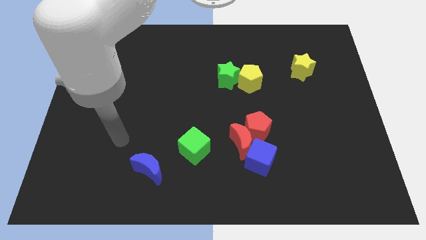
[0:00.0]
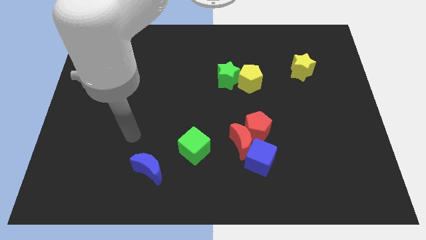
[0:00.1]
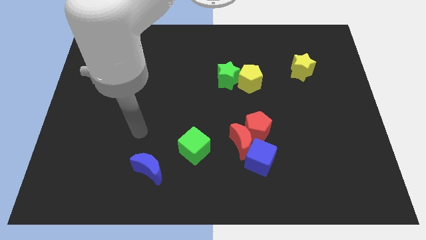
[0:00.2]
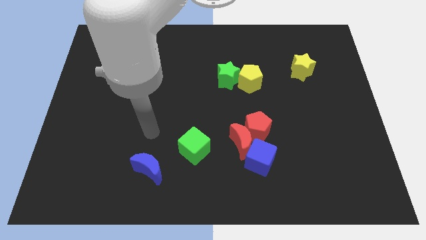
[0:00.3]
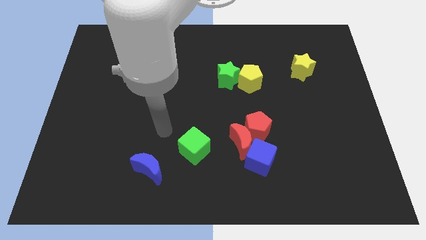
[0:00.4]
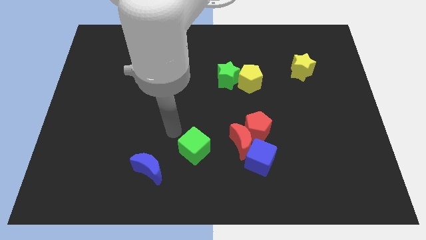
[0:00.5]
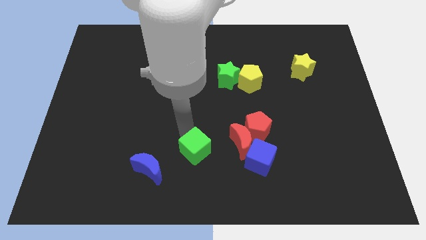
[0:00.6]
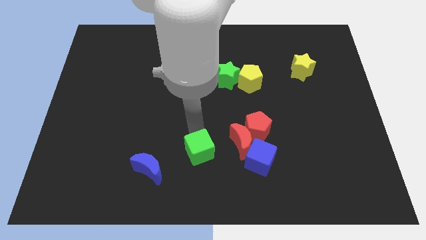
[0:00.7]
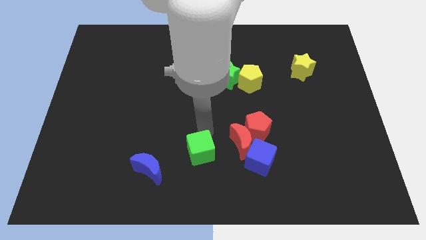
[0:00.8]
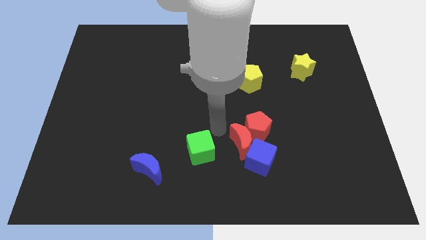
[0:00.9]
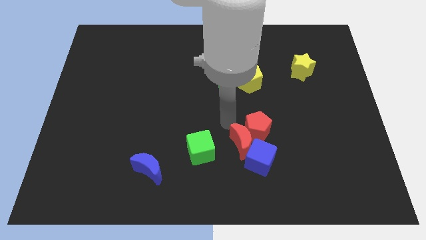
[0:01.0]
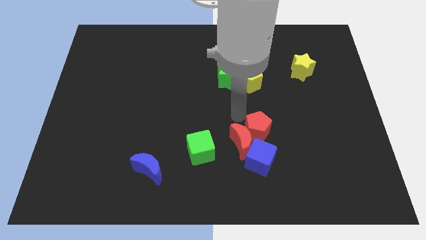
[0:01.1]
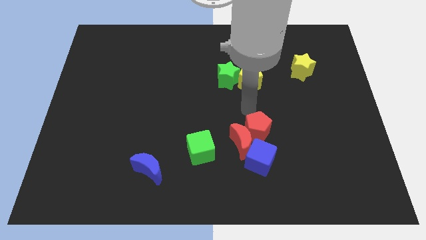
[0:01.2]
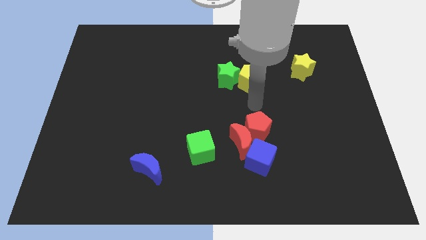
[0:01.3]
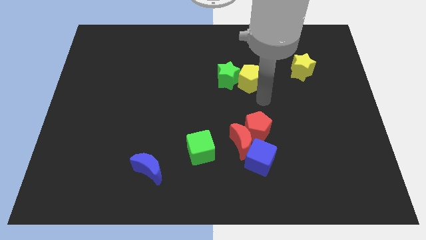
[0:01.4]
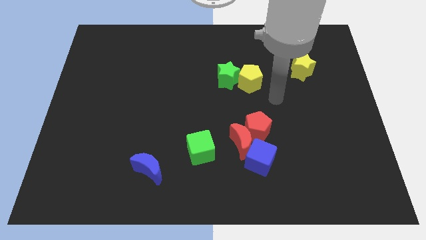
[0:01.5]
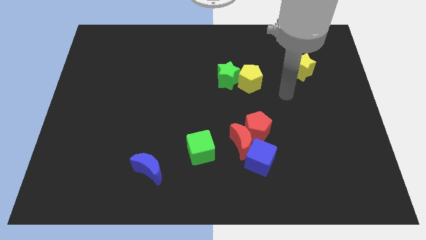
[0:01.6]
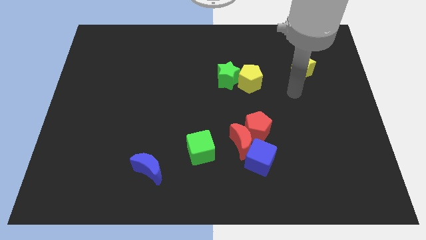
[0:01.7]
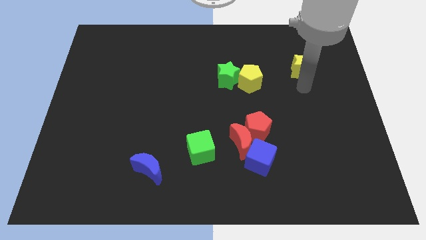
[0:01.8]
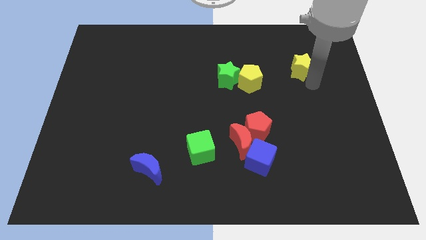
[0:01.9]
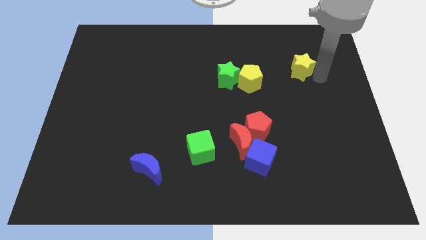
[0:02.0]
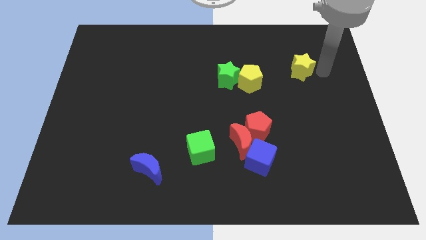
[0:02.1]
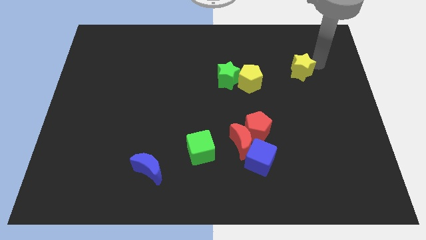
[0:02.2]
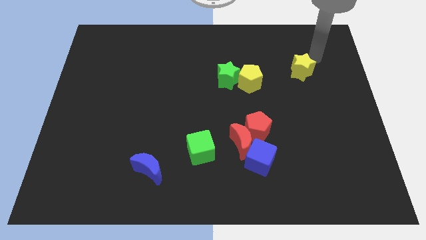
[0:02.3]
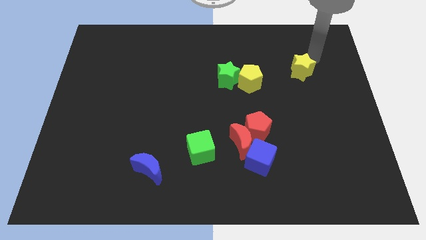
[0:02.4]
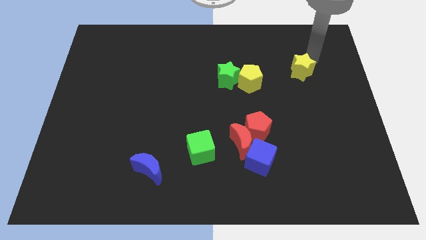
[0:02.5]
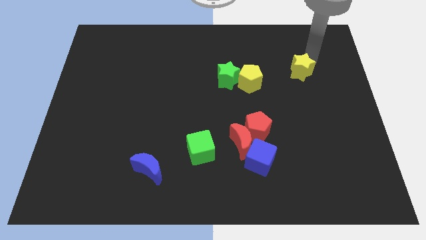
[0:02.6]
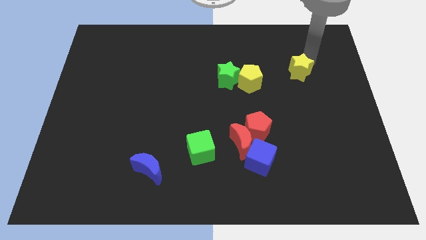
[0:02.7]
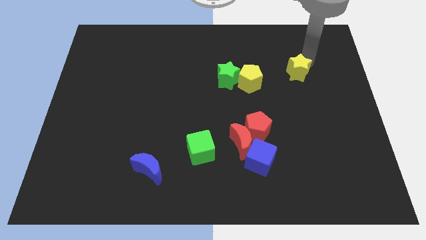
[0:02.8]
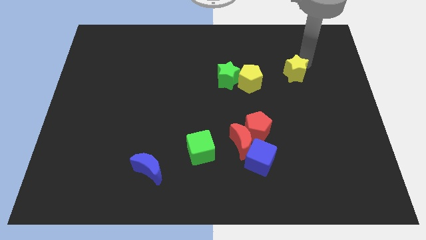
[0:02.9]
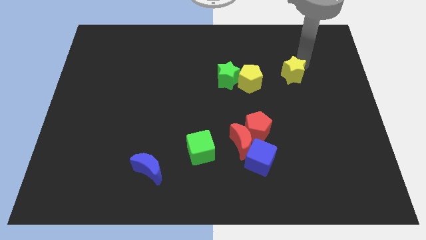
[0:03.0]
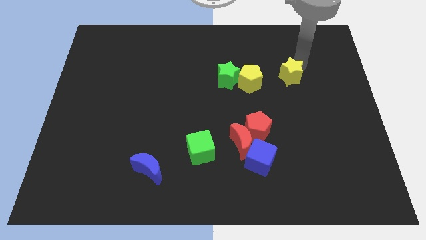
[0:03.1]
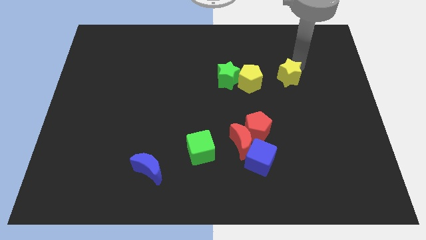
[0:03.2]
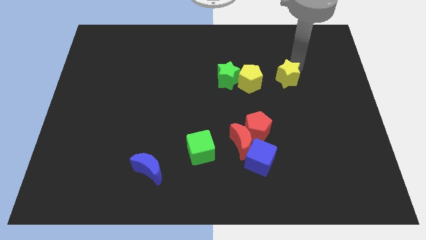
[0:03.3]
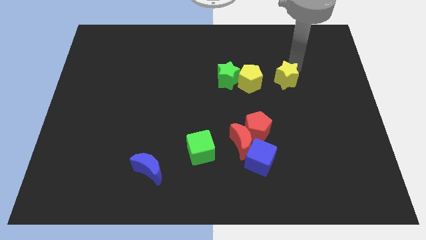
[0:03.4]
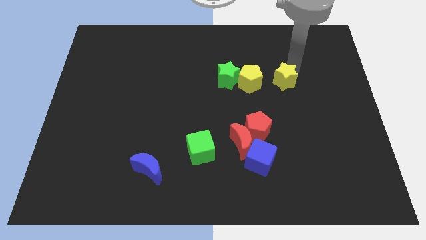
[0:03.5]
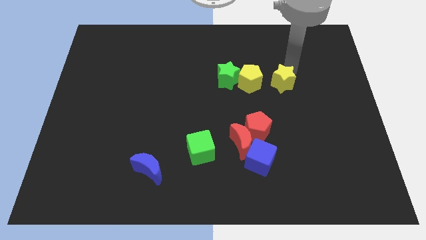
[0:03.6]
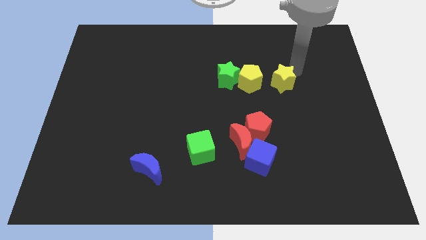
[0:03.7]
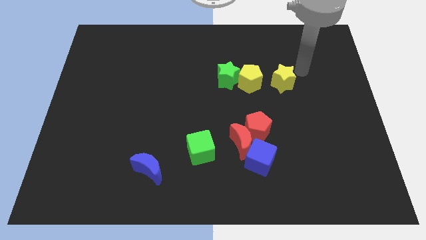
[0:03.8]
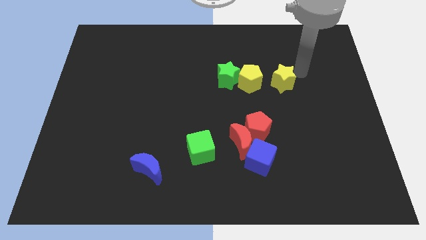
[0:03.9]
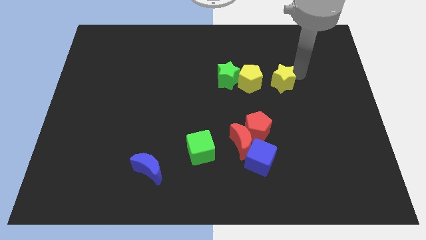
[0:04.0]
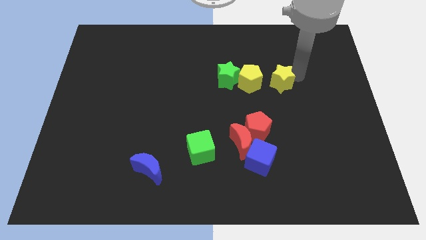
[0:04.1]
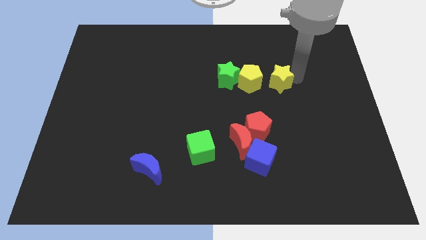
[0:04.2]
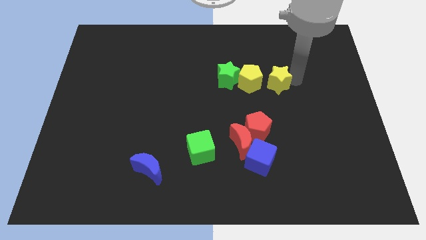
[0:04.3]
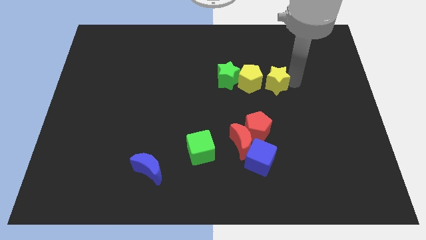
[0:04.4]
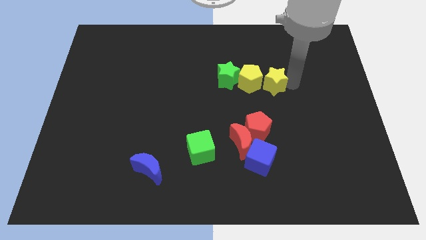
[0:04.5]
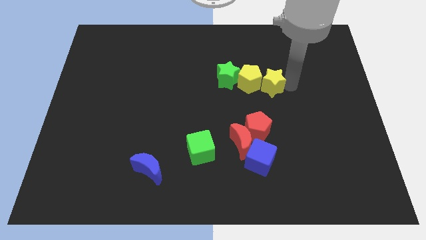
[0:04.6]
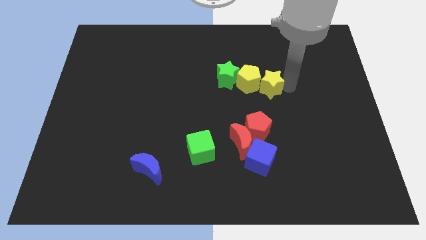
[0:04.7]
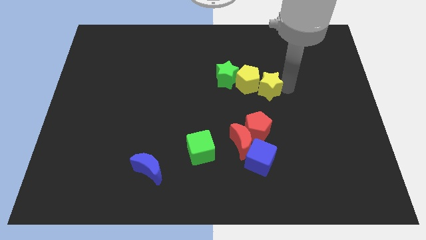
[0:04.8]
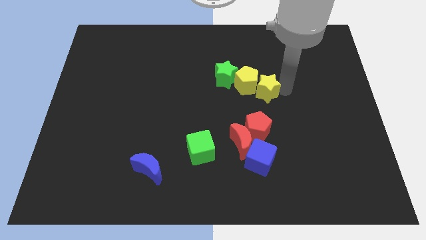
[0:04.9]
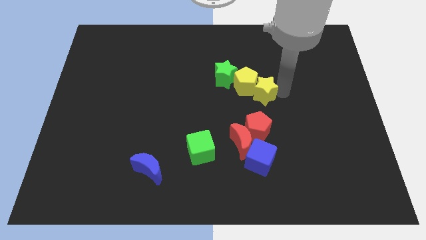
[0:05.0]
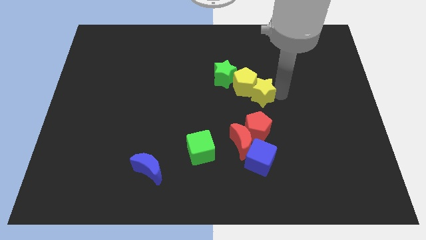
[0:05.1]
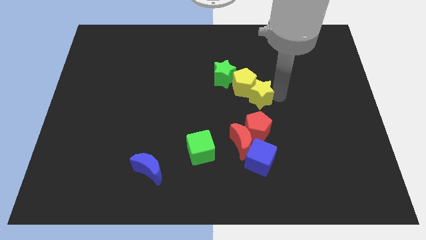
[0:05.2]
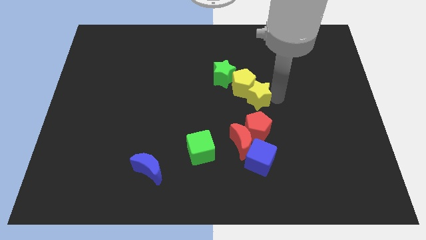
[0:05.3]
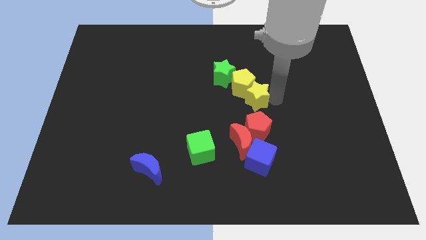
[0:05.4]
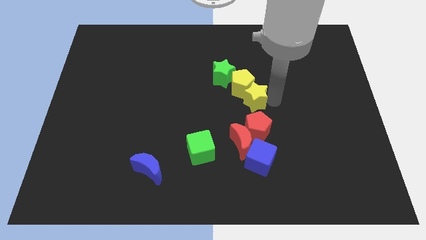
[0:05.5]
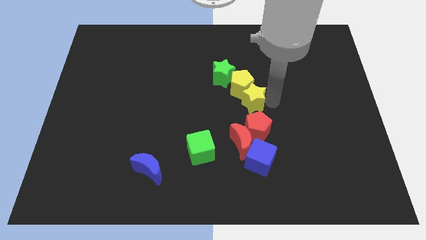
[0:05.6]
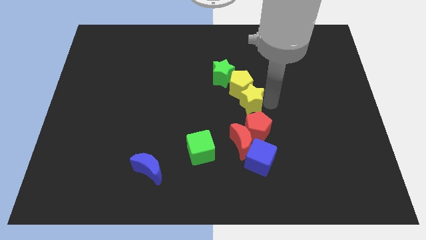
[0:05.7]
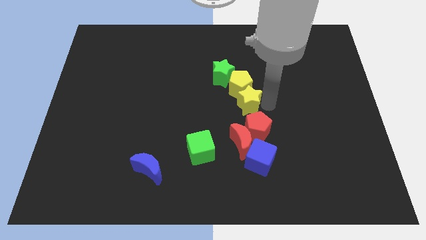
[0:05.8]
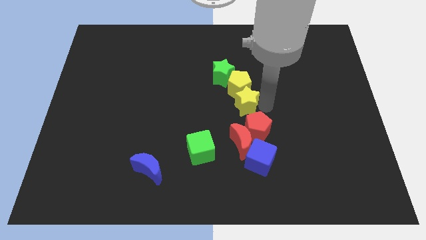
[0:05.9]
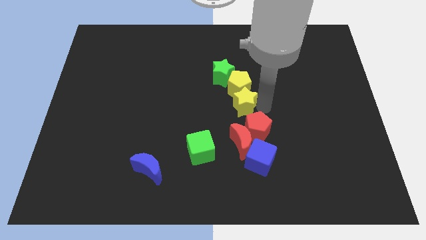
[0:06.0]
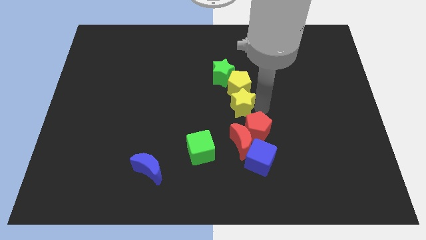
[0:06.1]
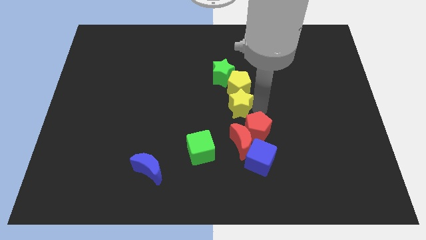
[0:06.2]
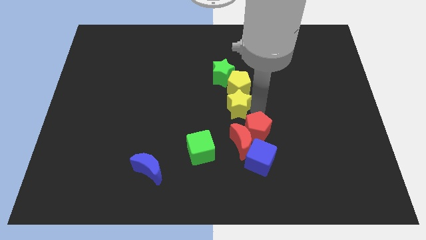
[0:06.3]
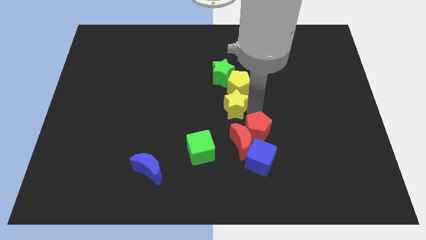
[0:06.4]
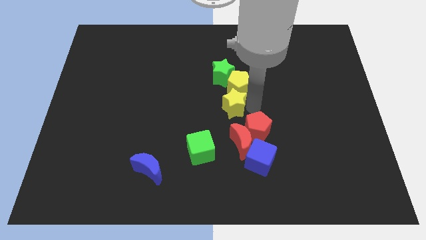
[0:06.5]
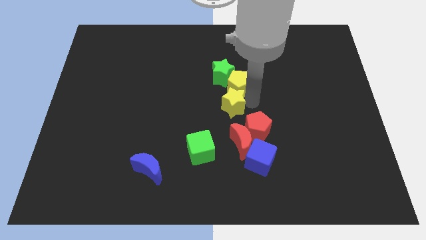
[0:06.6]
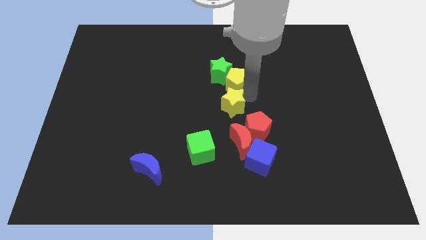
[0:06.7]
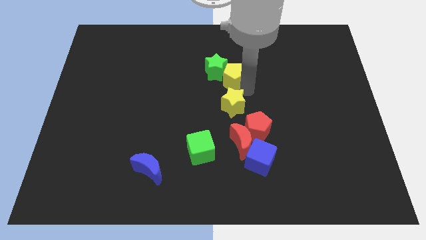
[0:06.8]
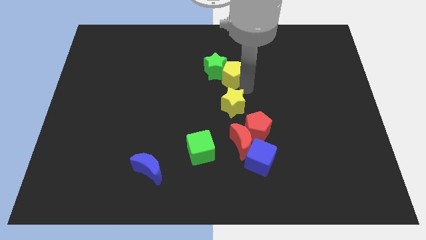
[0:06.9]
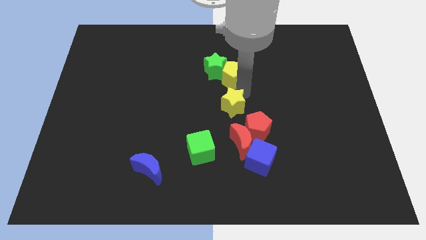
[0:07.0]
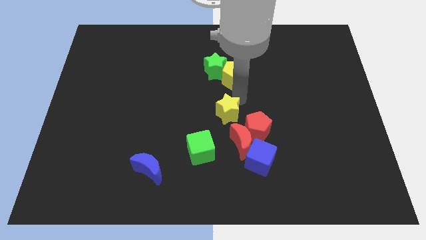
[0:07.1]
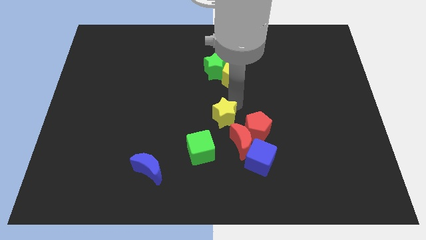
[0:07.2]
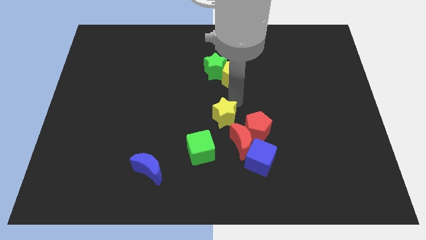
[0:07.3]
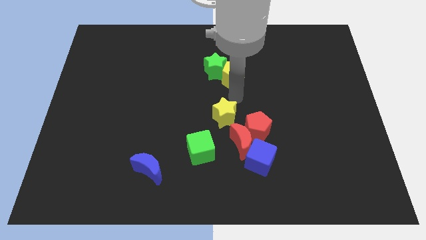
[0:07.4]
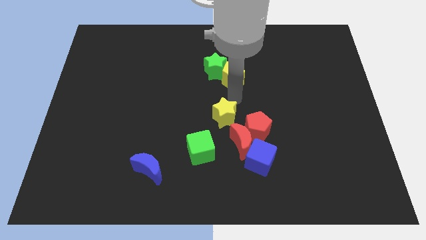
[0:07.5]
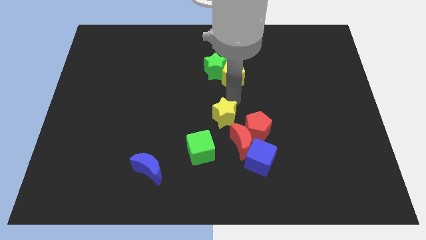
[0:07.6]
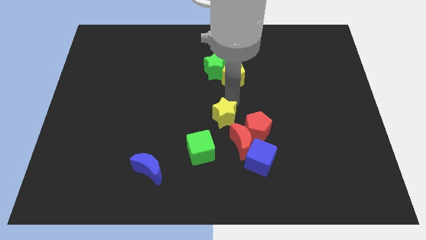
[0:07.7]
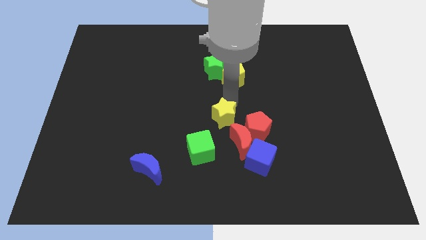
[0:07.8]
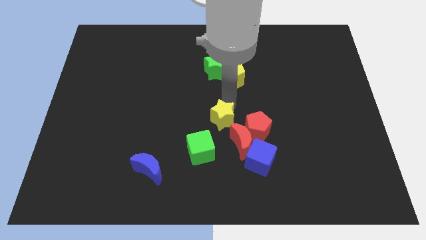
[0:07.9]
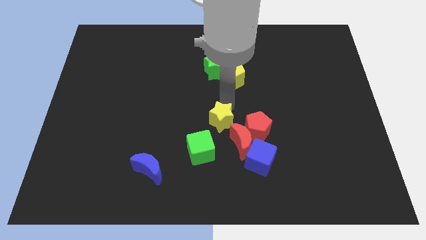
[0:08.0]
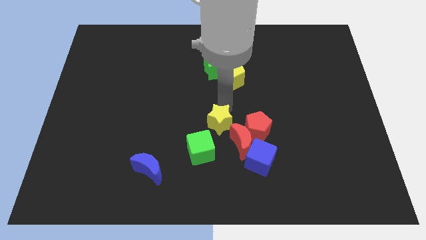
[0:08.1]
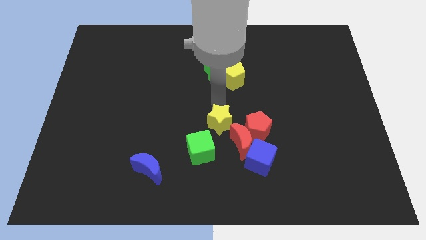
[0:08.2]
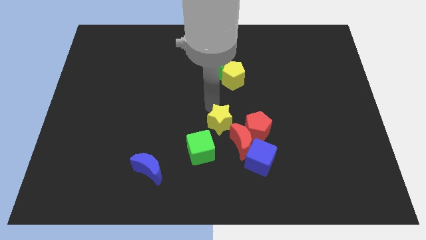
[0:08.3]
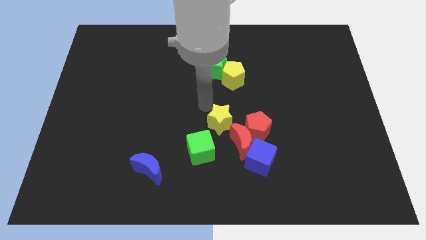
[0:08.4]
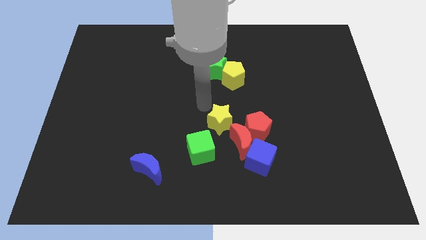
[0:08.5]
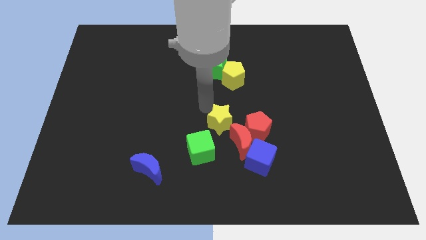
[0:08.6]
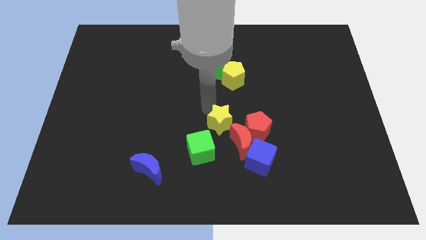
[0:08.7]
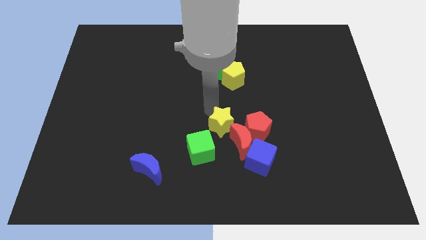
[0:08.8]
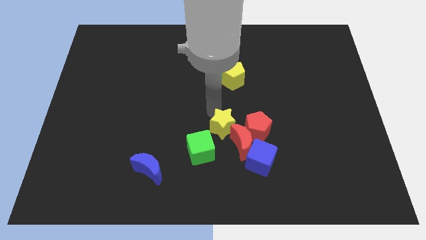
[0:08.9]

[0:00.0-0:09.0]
put the yellow star to the red moon
